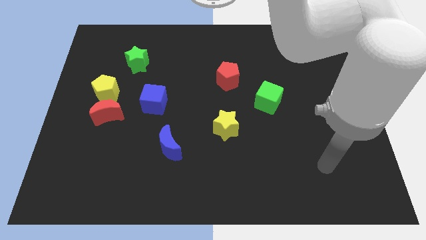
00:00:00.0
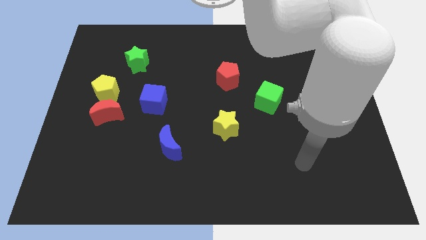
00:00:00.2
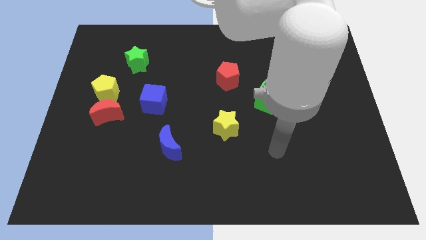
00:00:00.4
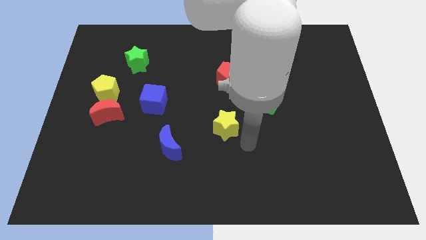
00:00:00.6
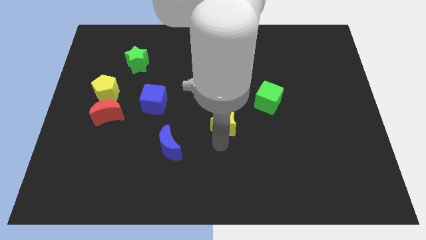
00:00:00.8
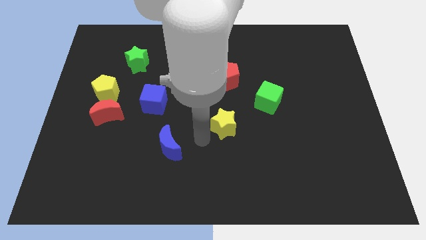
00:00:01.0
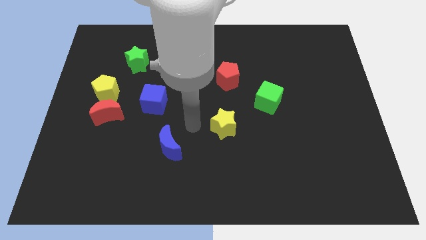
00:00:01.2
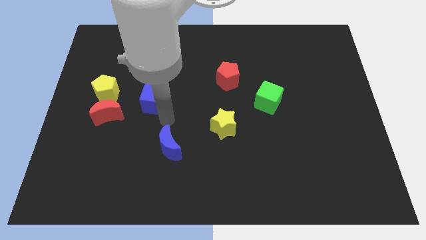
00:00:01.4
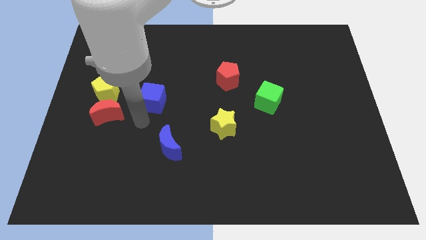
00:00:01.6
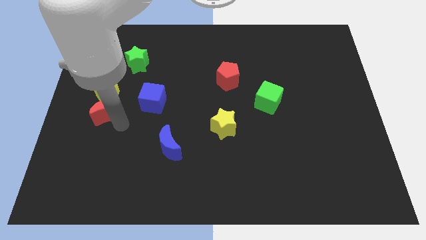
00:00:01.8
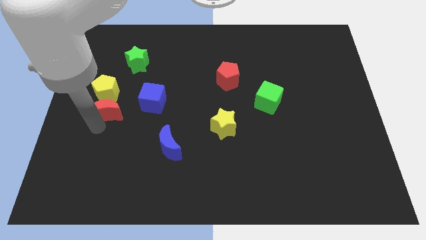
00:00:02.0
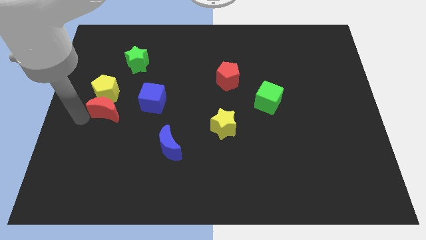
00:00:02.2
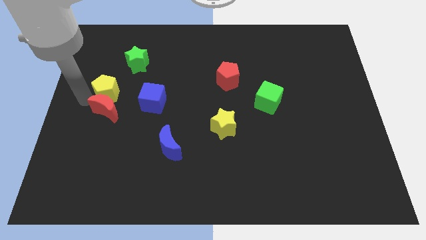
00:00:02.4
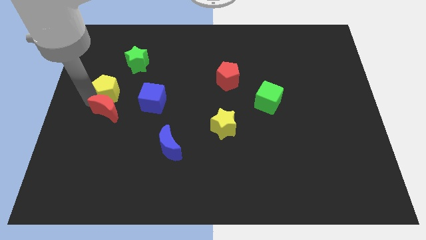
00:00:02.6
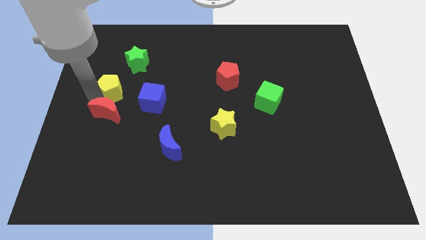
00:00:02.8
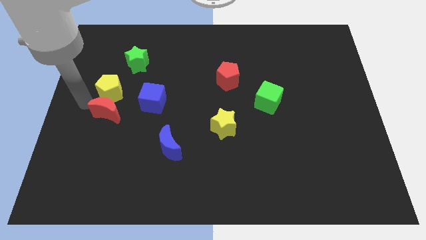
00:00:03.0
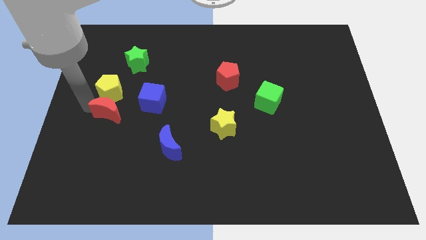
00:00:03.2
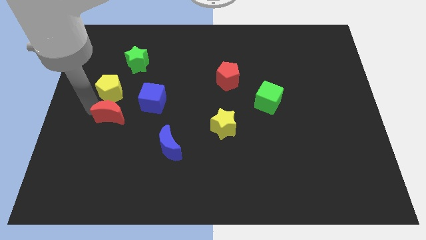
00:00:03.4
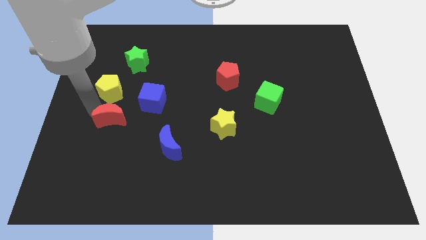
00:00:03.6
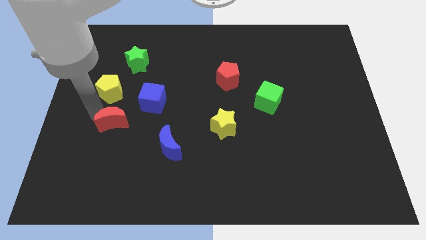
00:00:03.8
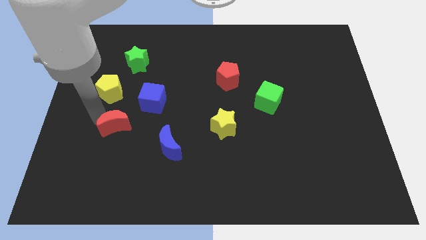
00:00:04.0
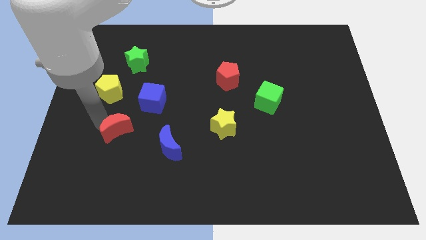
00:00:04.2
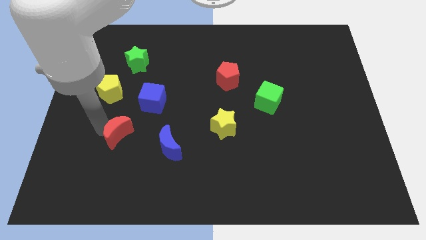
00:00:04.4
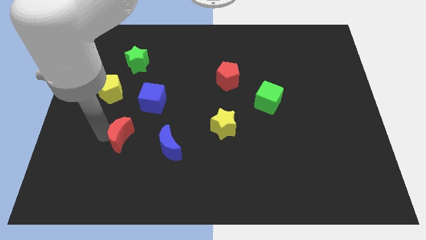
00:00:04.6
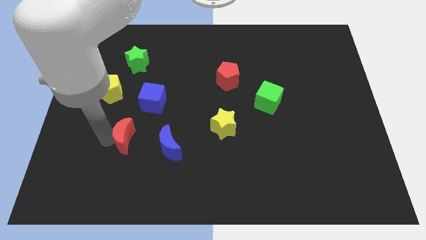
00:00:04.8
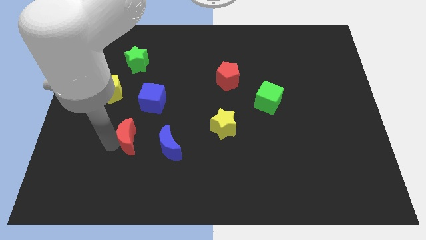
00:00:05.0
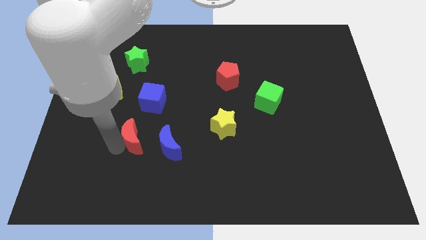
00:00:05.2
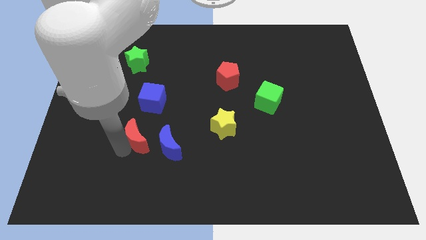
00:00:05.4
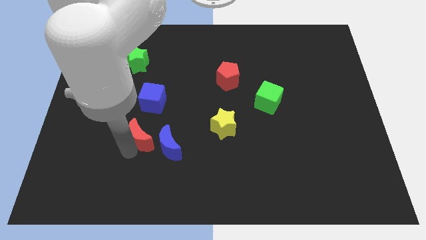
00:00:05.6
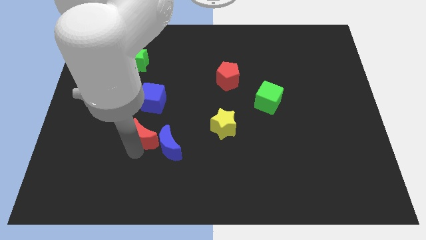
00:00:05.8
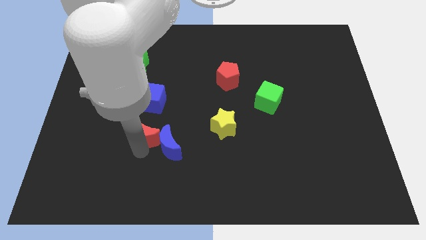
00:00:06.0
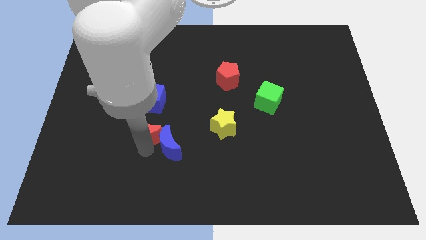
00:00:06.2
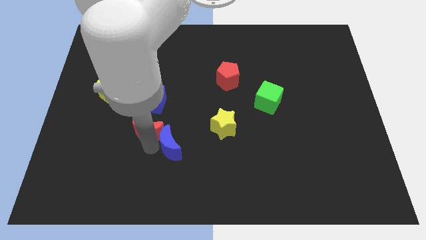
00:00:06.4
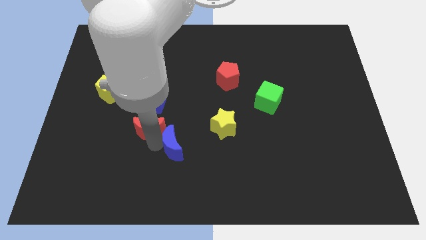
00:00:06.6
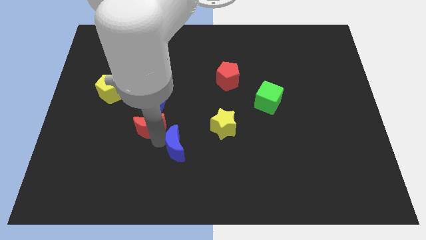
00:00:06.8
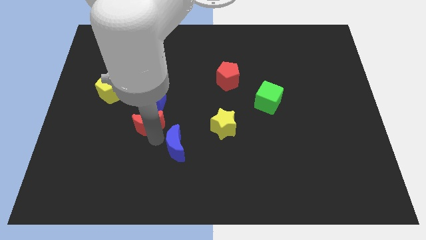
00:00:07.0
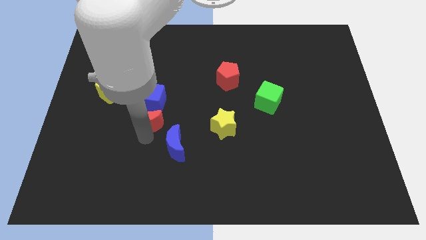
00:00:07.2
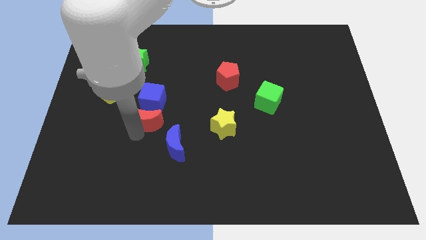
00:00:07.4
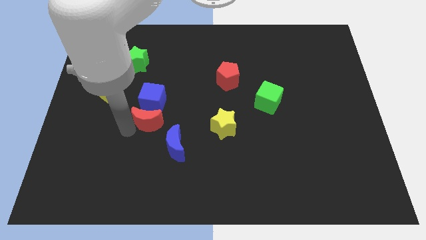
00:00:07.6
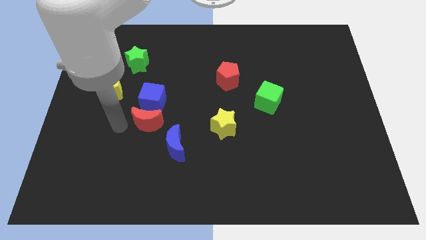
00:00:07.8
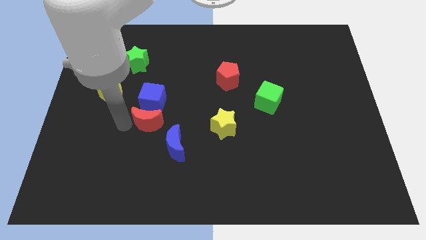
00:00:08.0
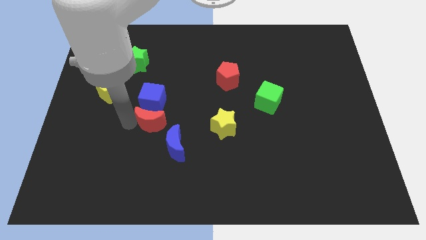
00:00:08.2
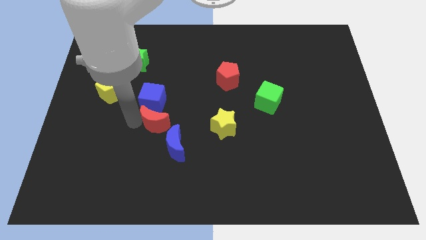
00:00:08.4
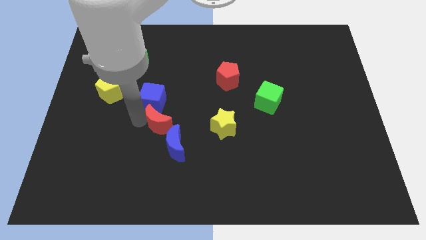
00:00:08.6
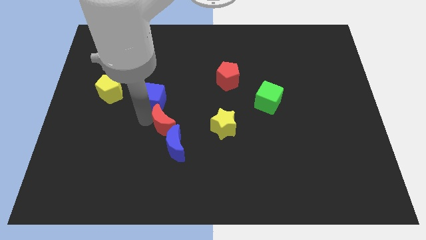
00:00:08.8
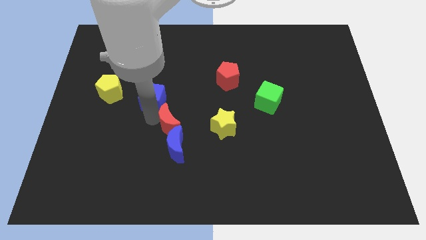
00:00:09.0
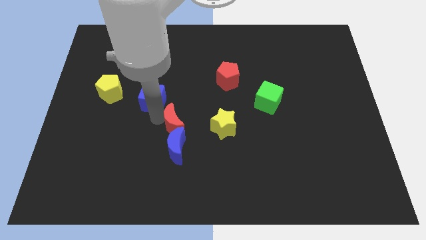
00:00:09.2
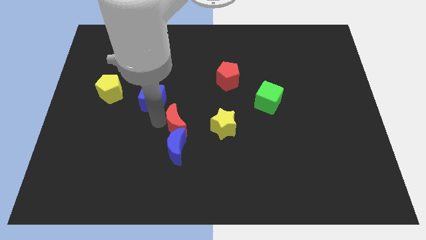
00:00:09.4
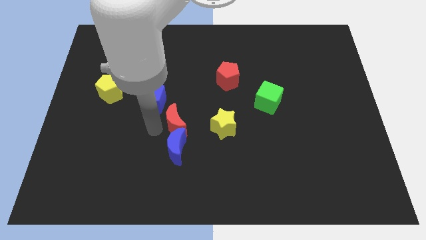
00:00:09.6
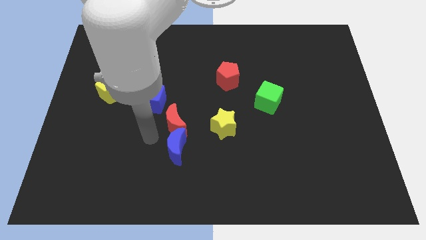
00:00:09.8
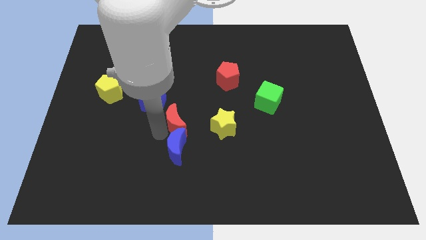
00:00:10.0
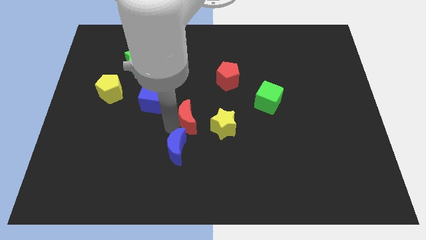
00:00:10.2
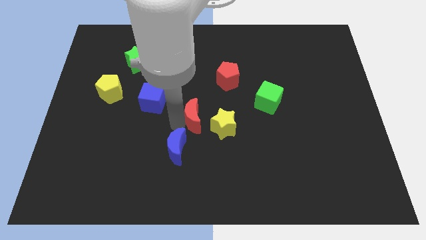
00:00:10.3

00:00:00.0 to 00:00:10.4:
move the red moon right

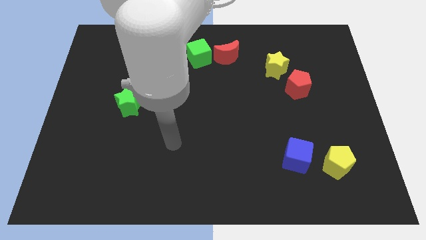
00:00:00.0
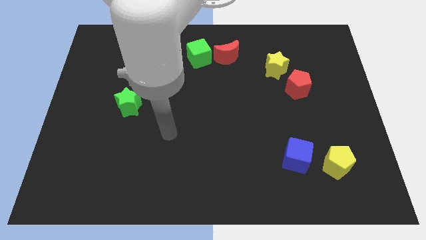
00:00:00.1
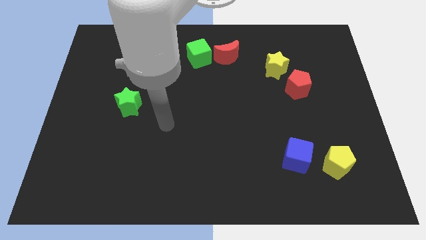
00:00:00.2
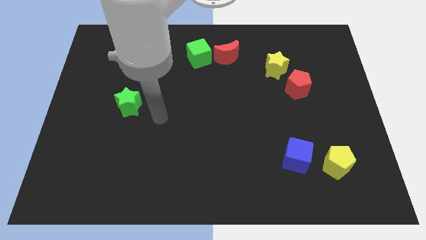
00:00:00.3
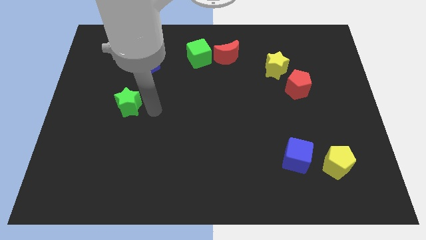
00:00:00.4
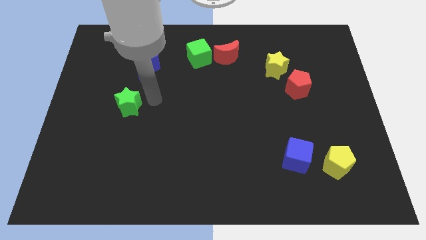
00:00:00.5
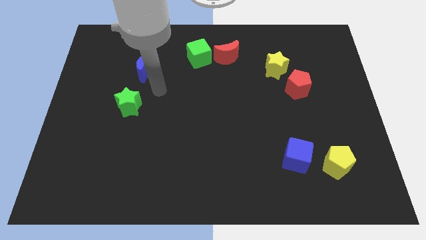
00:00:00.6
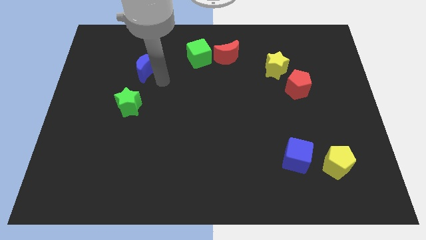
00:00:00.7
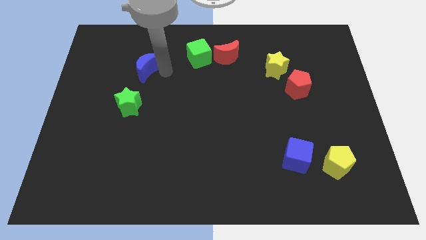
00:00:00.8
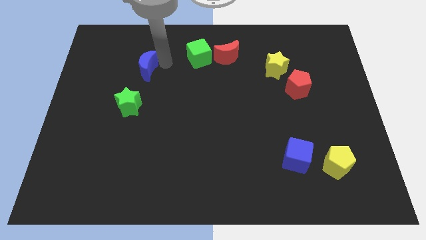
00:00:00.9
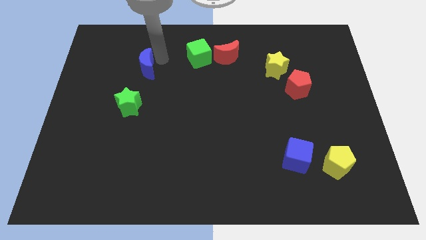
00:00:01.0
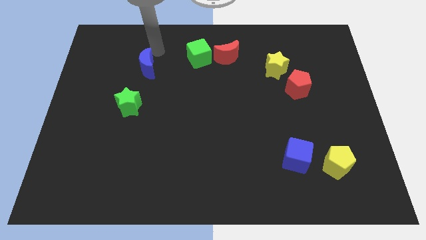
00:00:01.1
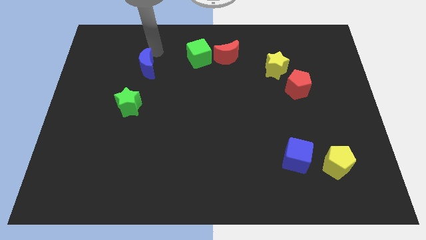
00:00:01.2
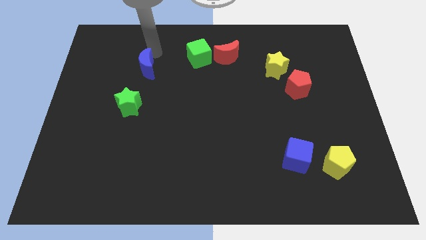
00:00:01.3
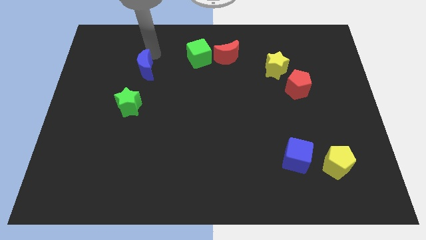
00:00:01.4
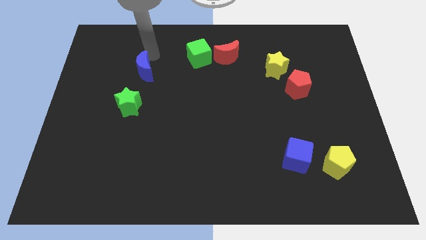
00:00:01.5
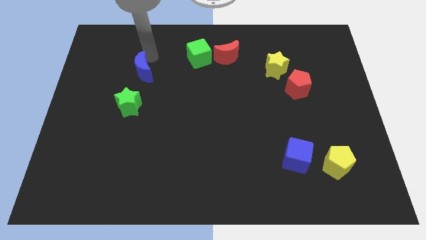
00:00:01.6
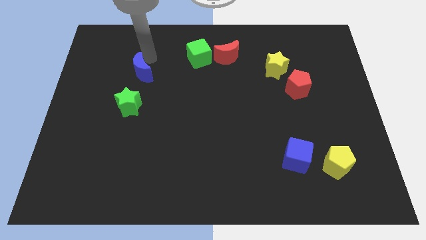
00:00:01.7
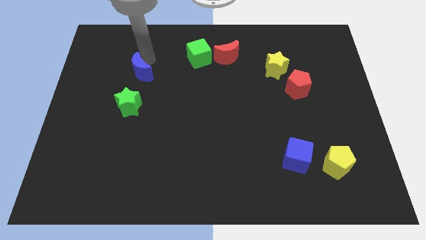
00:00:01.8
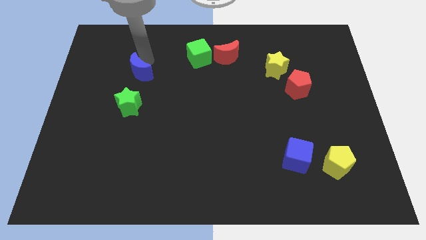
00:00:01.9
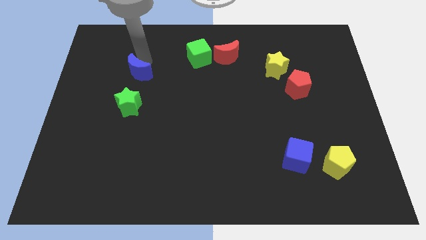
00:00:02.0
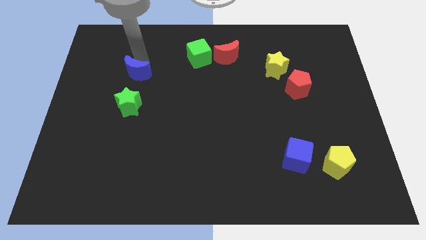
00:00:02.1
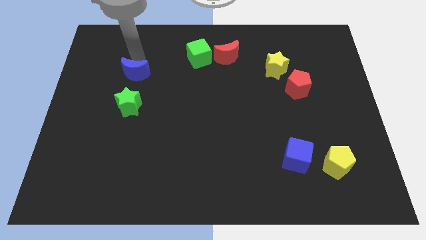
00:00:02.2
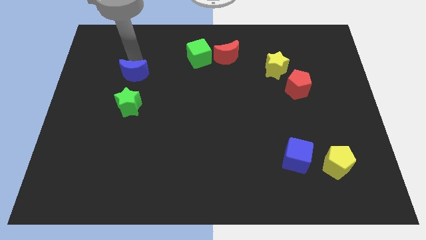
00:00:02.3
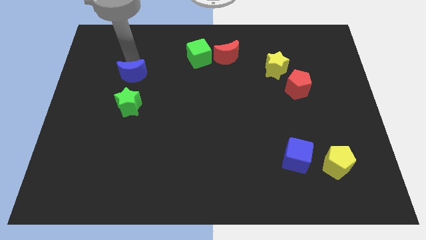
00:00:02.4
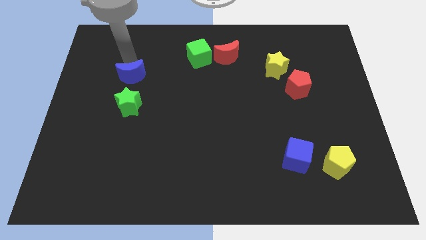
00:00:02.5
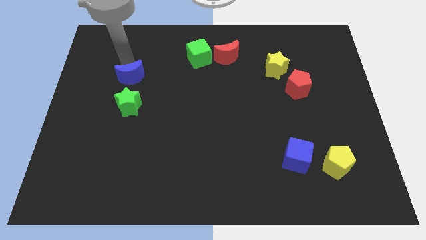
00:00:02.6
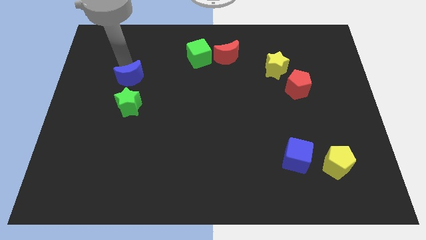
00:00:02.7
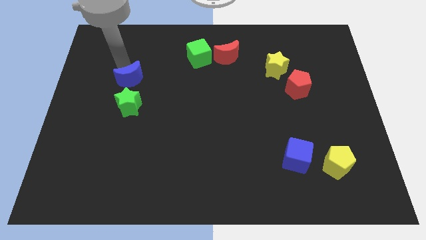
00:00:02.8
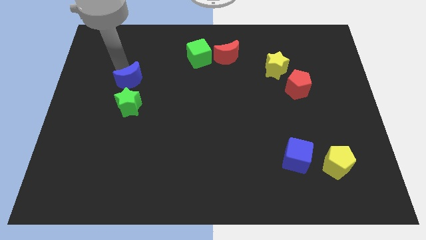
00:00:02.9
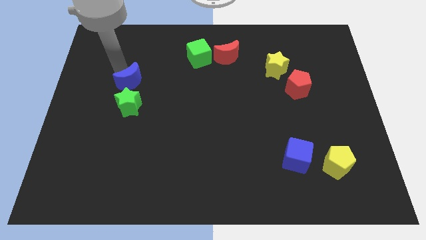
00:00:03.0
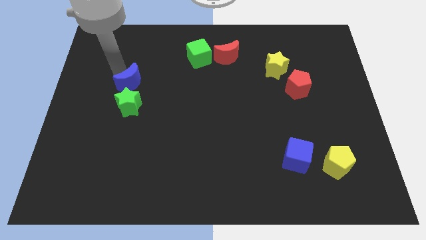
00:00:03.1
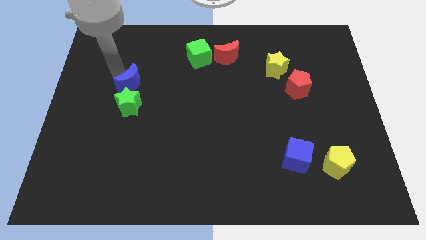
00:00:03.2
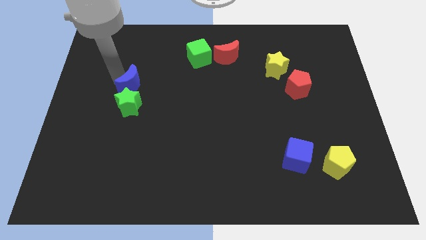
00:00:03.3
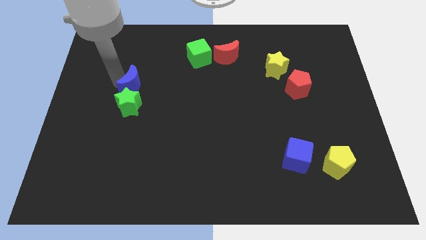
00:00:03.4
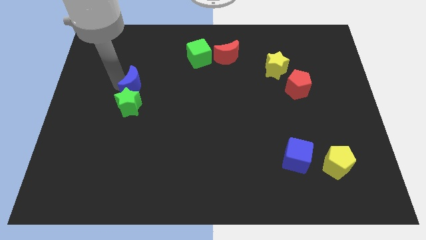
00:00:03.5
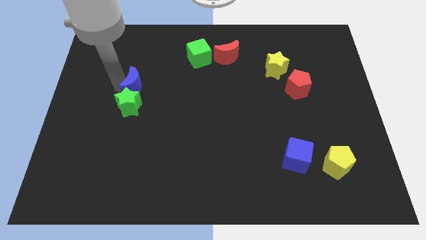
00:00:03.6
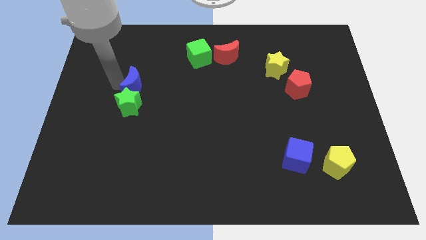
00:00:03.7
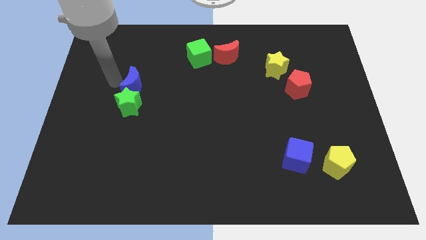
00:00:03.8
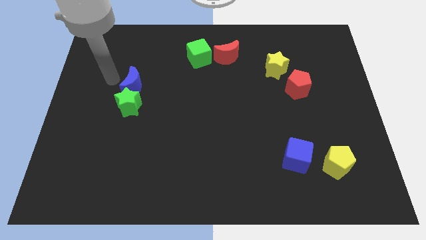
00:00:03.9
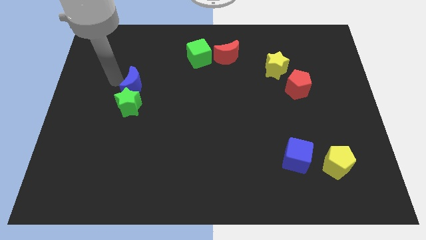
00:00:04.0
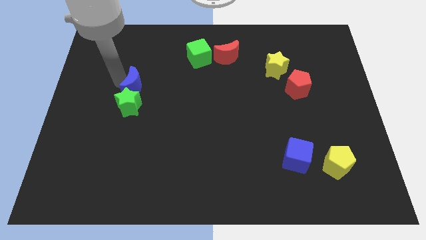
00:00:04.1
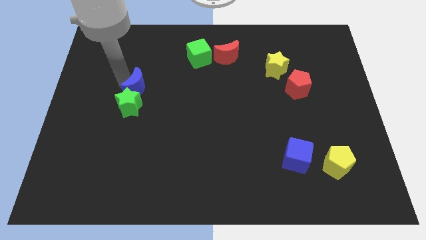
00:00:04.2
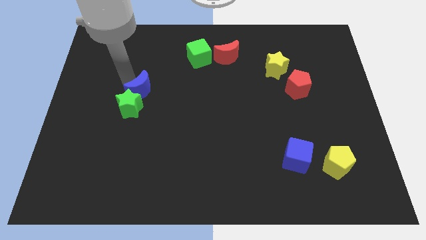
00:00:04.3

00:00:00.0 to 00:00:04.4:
slightly slide the blue moon down
